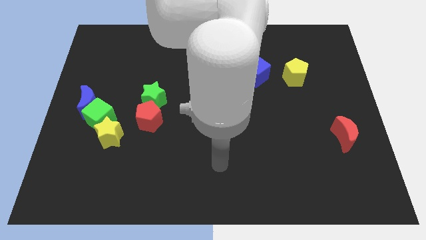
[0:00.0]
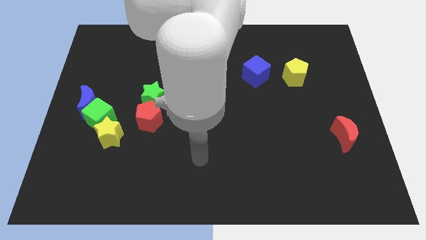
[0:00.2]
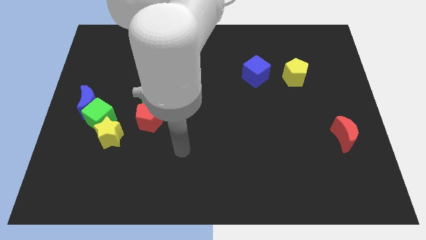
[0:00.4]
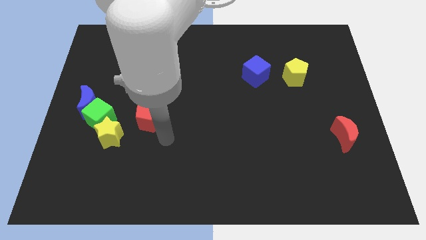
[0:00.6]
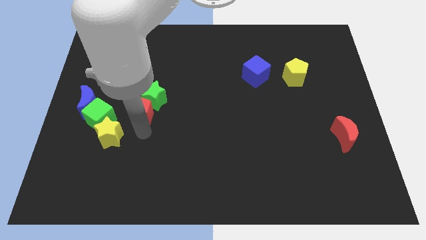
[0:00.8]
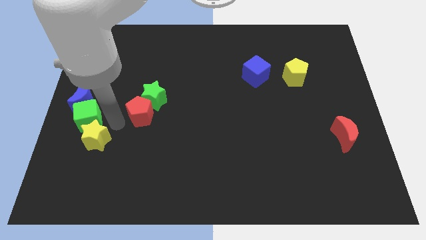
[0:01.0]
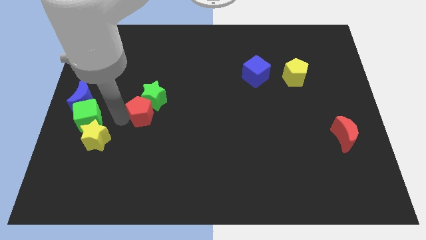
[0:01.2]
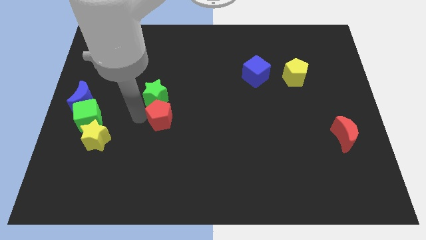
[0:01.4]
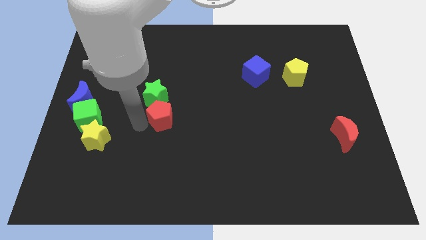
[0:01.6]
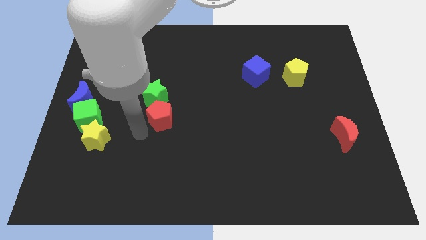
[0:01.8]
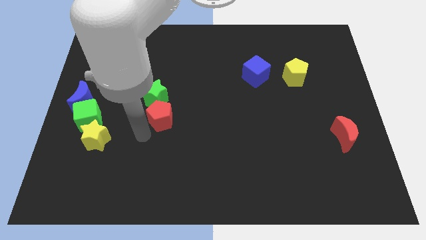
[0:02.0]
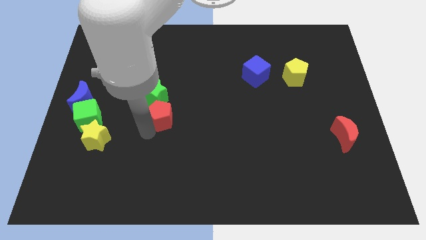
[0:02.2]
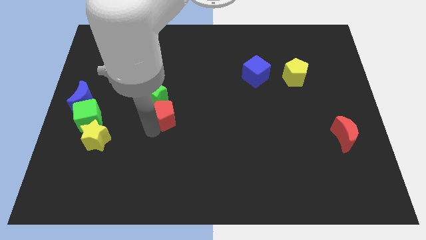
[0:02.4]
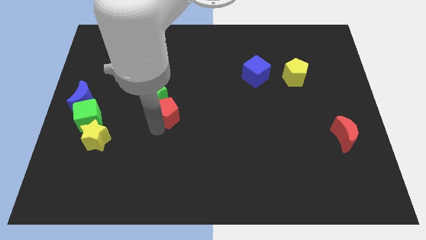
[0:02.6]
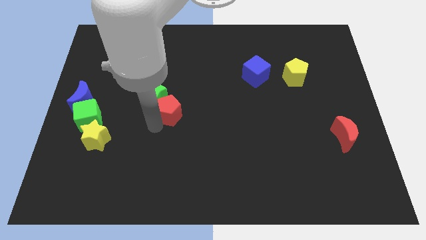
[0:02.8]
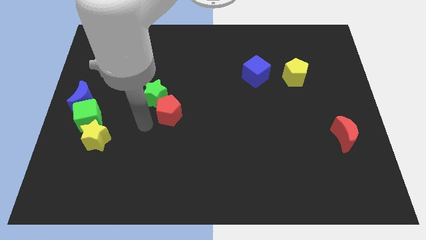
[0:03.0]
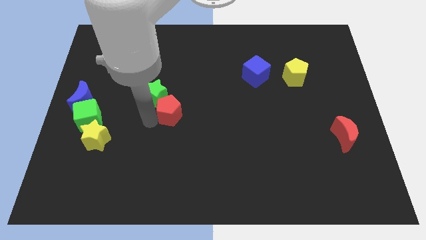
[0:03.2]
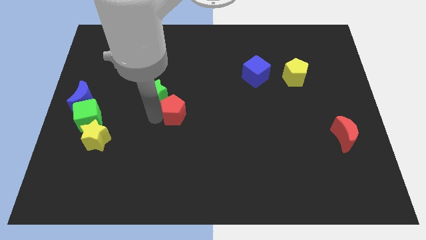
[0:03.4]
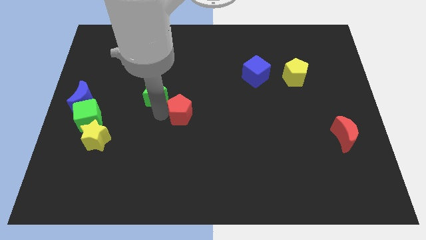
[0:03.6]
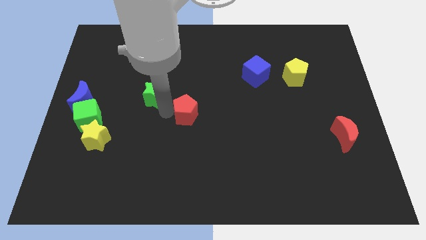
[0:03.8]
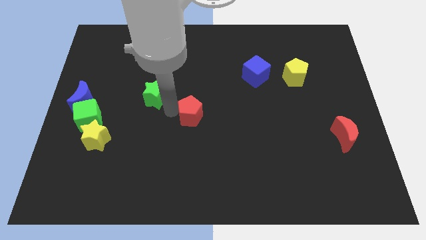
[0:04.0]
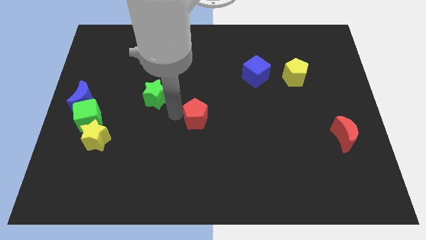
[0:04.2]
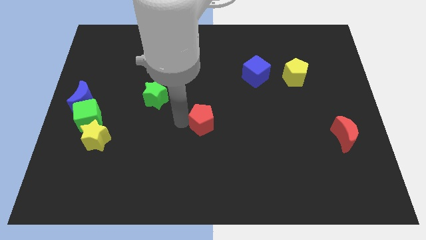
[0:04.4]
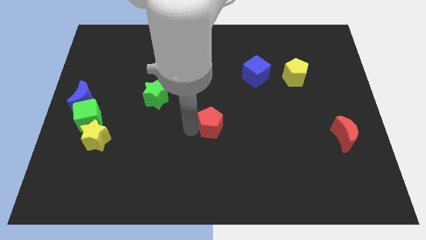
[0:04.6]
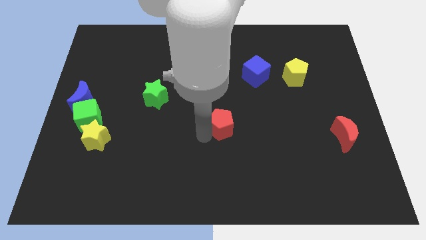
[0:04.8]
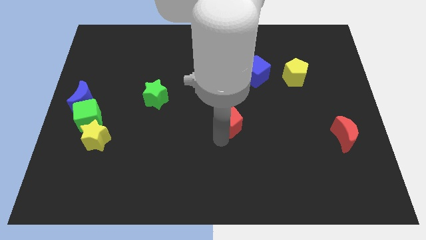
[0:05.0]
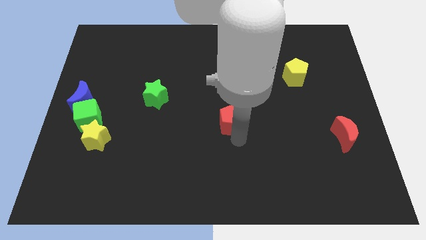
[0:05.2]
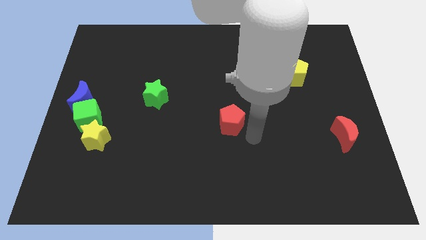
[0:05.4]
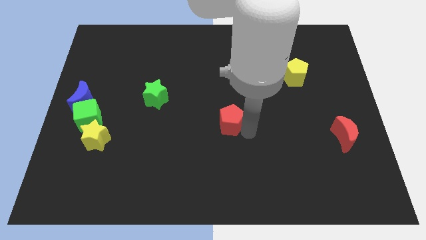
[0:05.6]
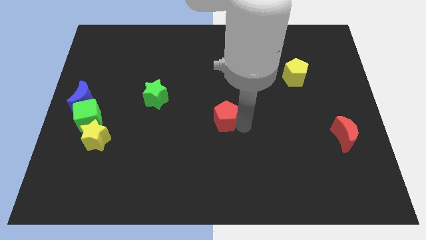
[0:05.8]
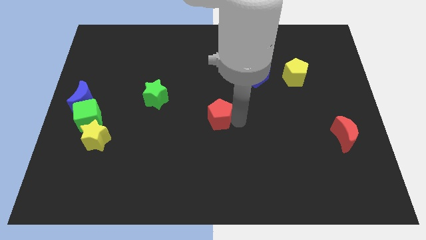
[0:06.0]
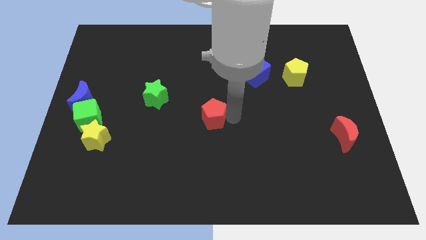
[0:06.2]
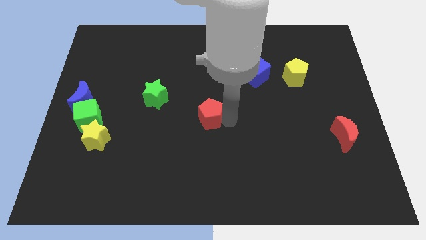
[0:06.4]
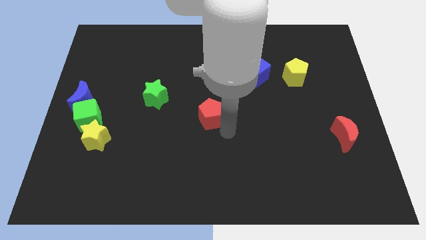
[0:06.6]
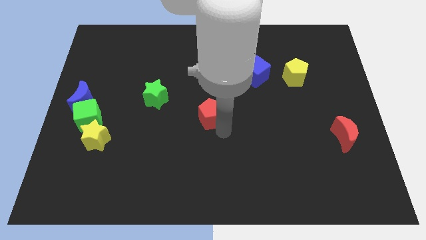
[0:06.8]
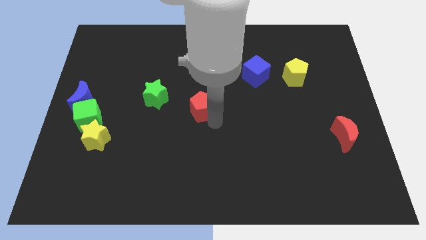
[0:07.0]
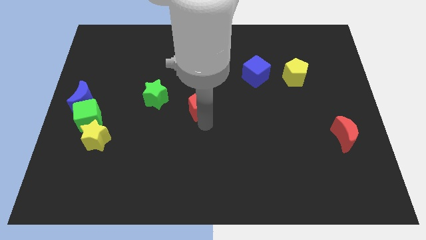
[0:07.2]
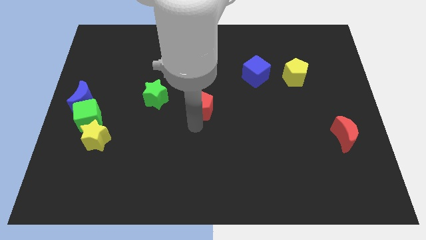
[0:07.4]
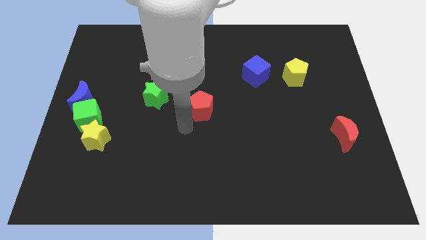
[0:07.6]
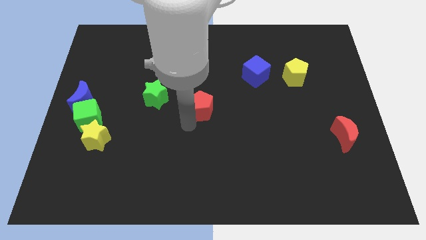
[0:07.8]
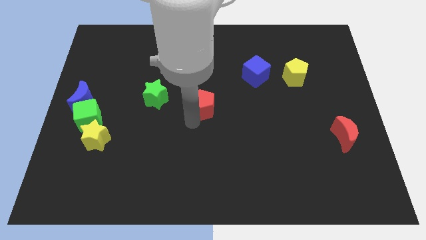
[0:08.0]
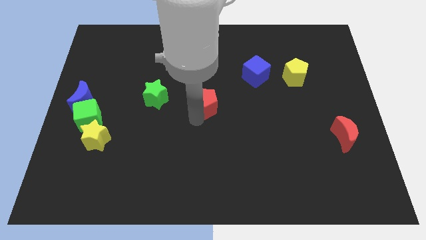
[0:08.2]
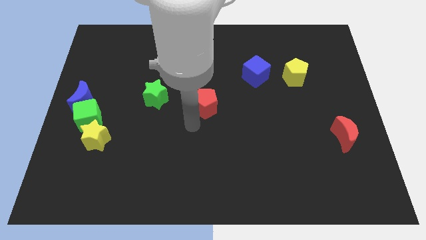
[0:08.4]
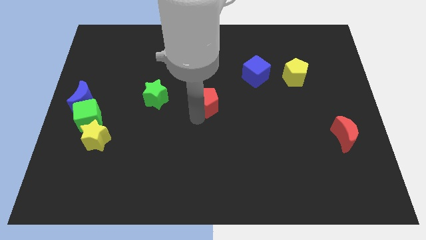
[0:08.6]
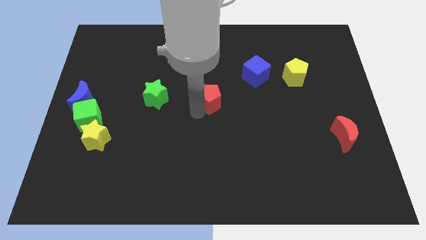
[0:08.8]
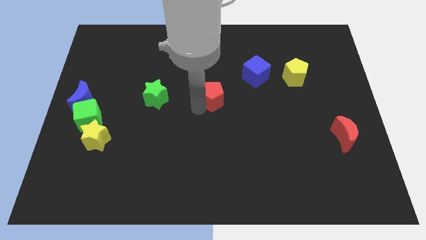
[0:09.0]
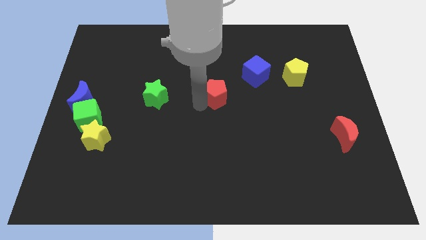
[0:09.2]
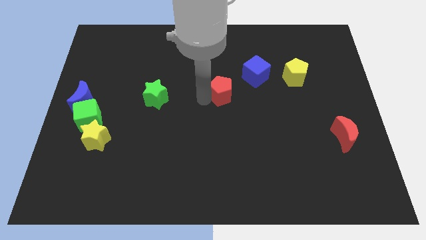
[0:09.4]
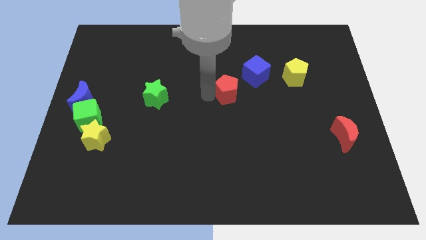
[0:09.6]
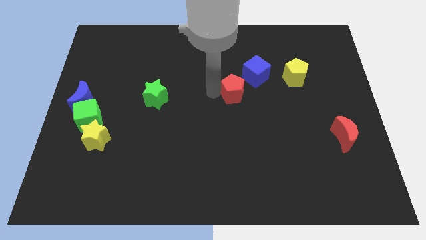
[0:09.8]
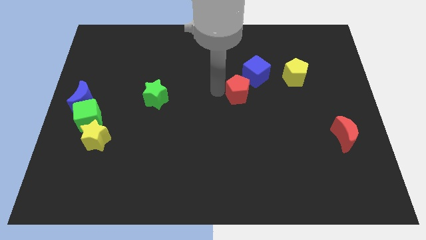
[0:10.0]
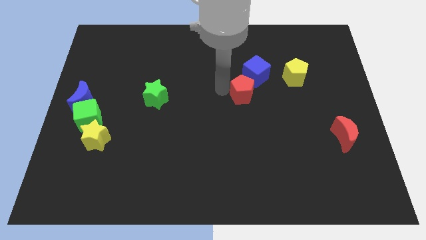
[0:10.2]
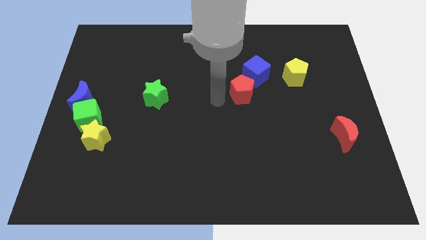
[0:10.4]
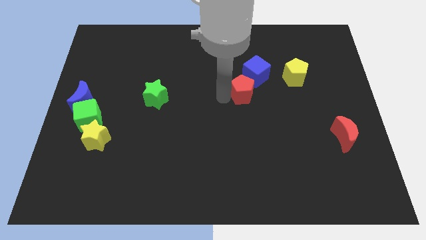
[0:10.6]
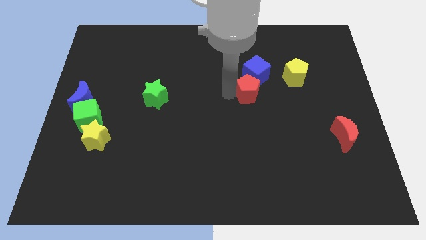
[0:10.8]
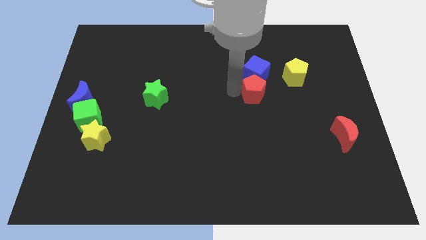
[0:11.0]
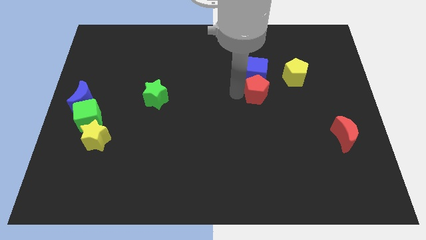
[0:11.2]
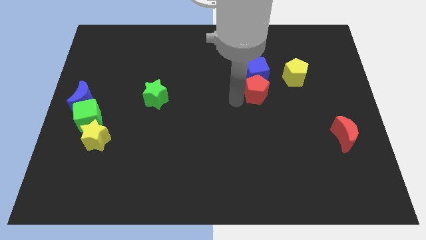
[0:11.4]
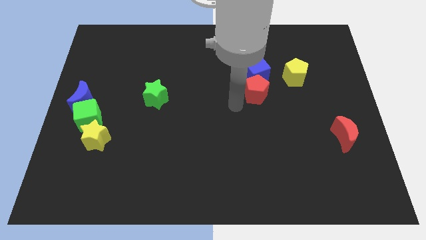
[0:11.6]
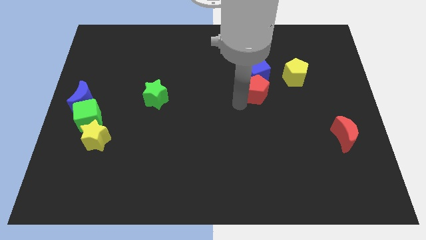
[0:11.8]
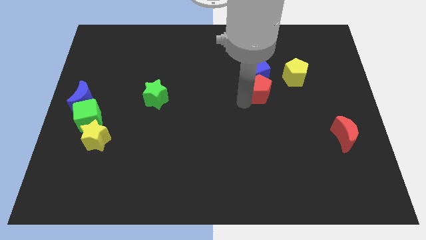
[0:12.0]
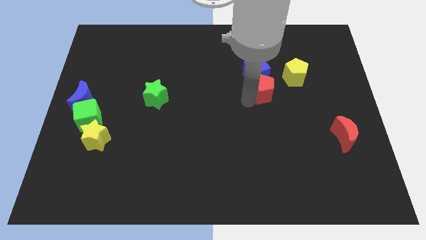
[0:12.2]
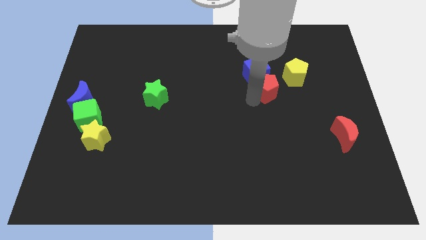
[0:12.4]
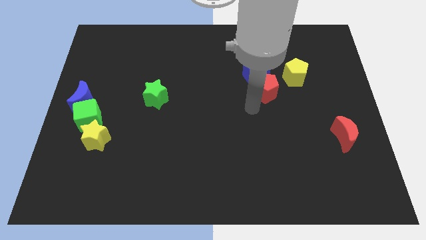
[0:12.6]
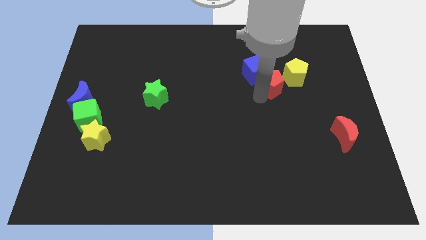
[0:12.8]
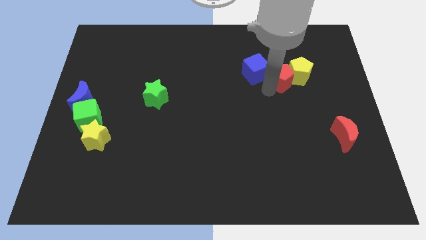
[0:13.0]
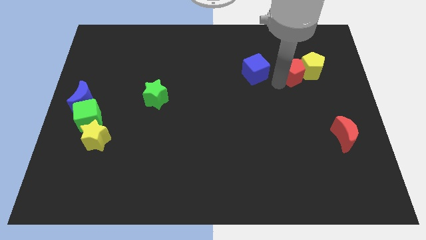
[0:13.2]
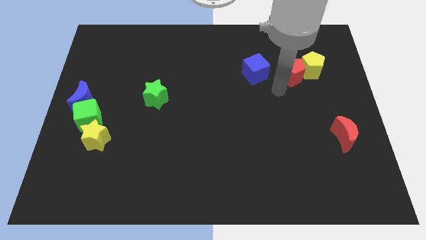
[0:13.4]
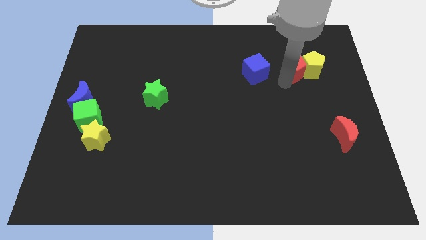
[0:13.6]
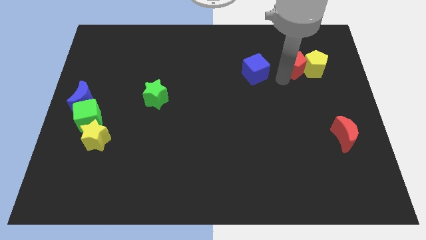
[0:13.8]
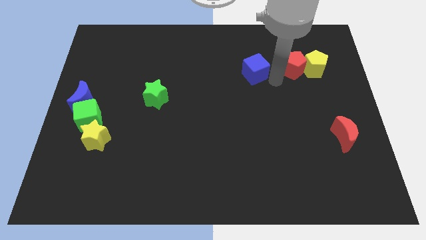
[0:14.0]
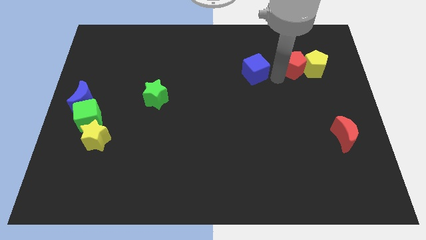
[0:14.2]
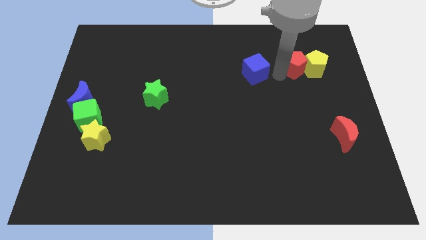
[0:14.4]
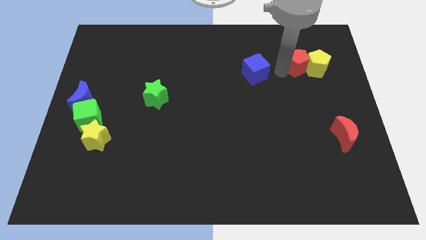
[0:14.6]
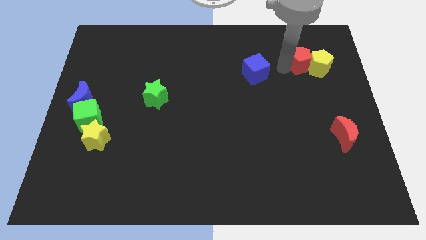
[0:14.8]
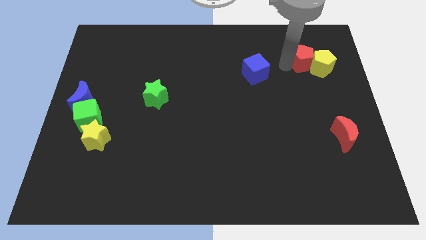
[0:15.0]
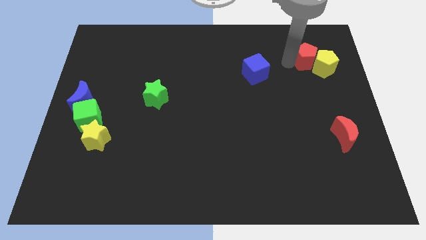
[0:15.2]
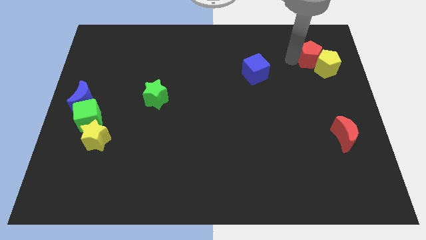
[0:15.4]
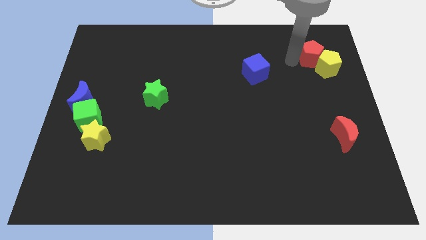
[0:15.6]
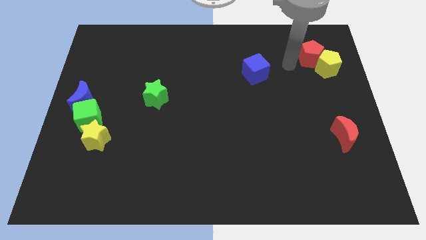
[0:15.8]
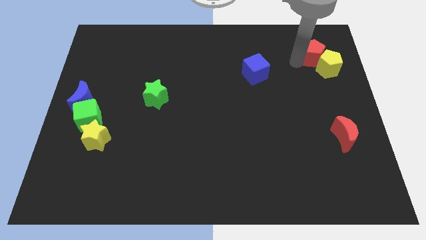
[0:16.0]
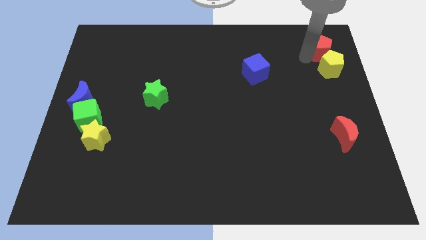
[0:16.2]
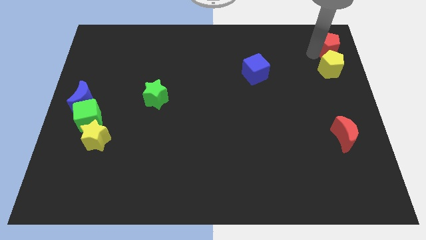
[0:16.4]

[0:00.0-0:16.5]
slide the red pentagon to the top right corner
